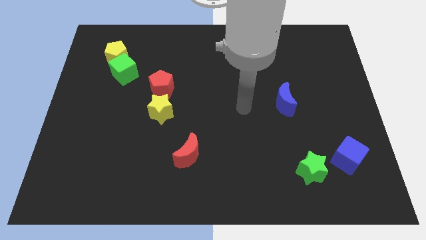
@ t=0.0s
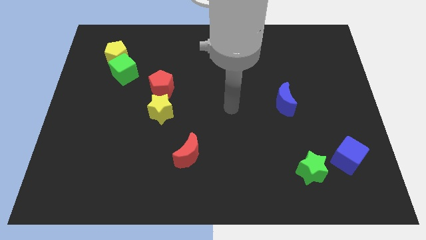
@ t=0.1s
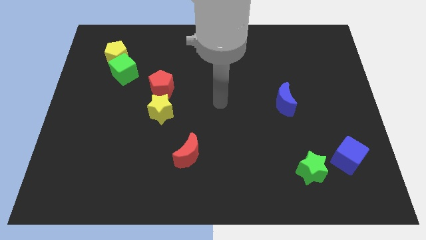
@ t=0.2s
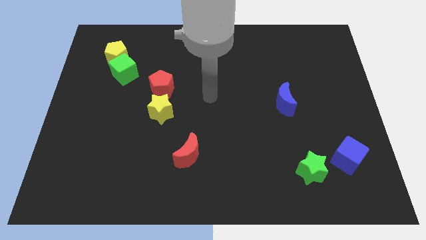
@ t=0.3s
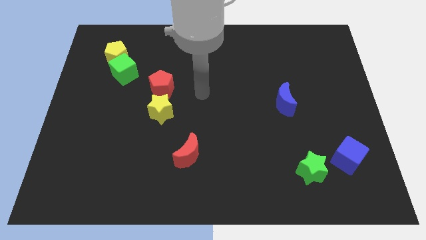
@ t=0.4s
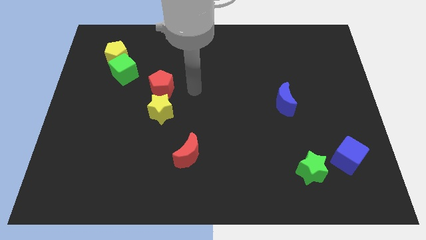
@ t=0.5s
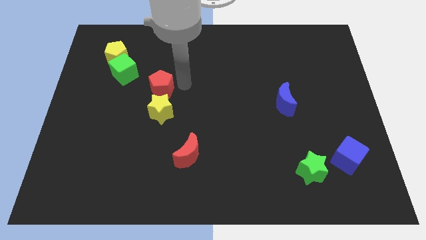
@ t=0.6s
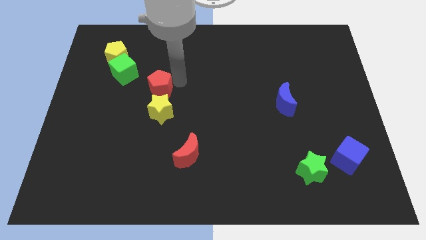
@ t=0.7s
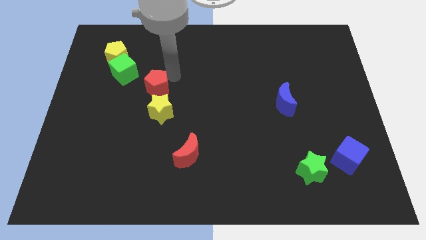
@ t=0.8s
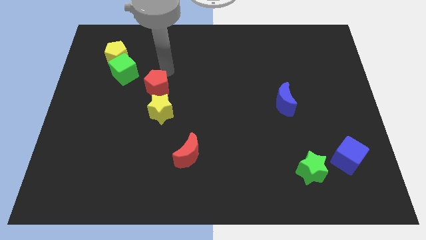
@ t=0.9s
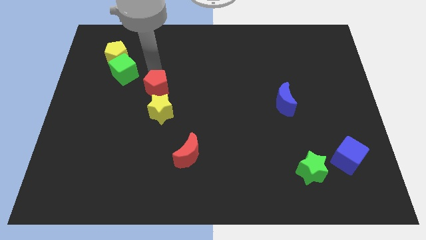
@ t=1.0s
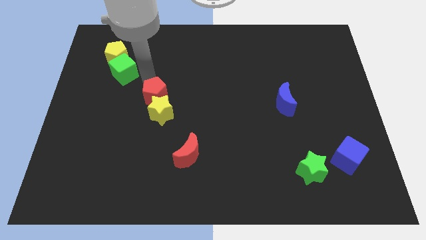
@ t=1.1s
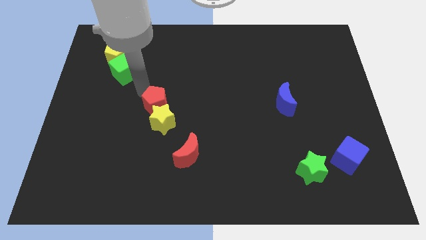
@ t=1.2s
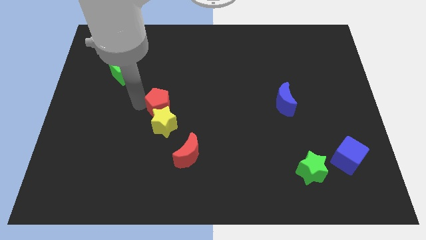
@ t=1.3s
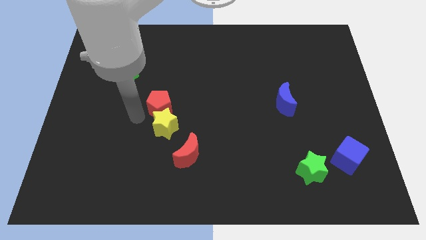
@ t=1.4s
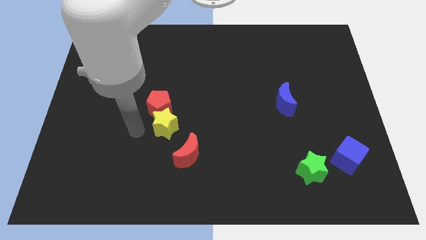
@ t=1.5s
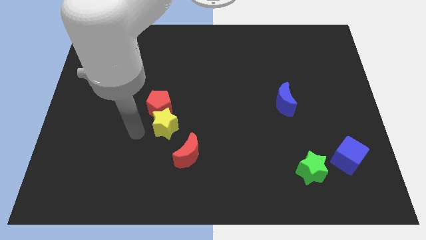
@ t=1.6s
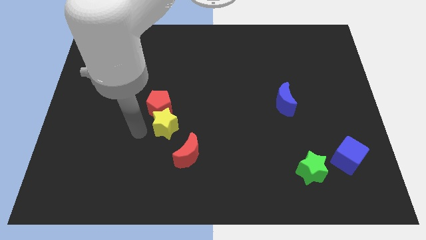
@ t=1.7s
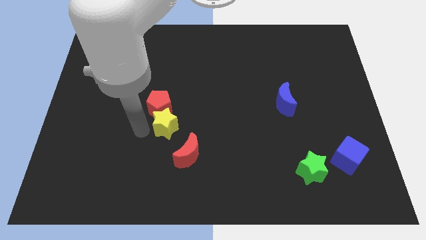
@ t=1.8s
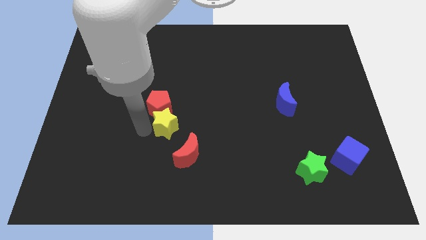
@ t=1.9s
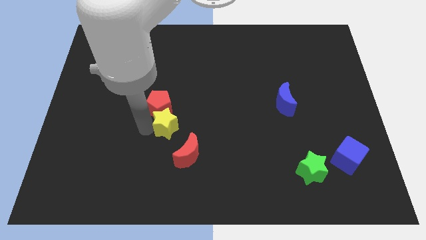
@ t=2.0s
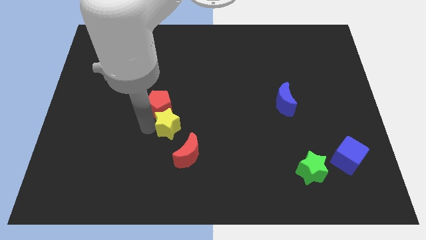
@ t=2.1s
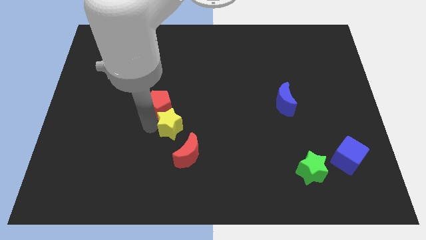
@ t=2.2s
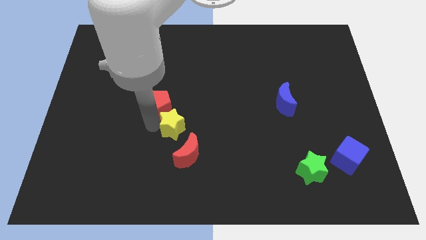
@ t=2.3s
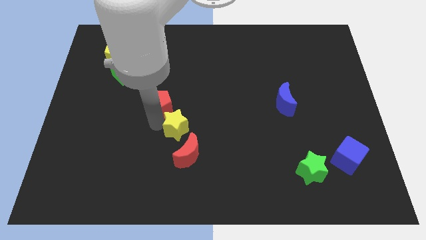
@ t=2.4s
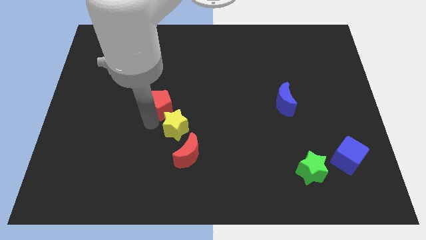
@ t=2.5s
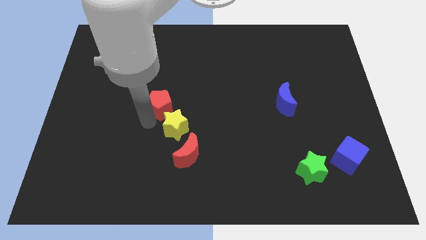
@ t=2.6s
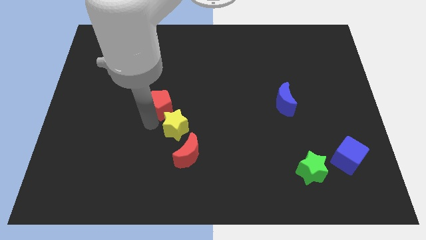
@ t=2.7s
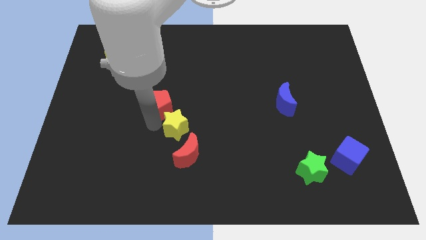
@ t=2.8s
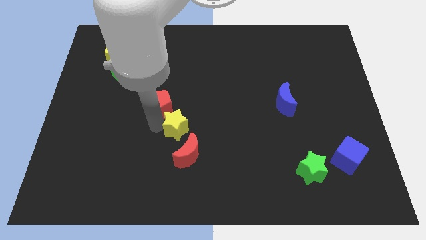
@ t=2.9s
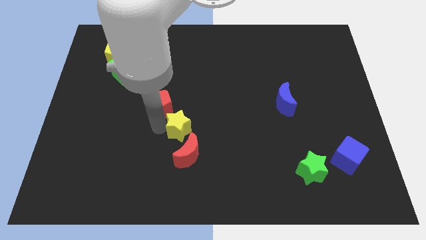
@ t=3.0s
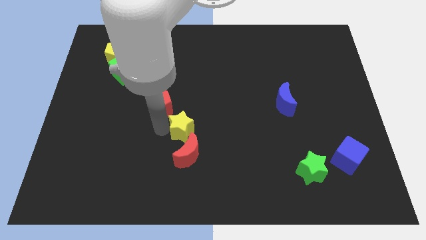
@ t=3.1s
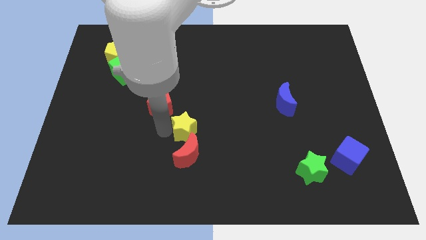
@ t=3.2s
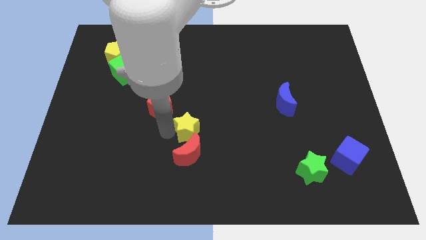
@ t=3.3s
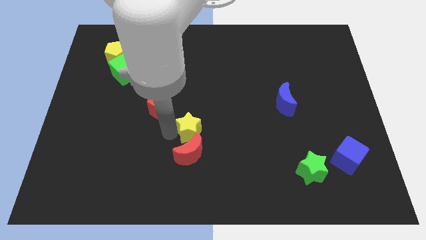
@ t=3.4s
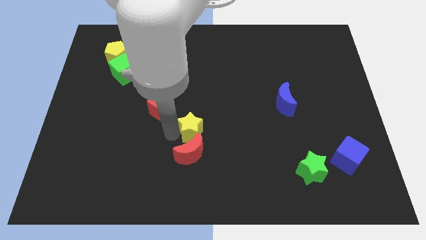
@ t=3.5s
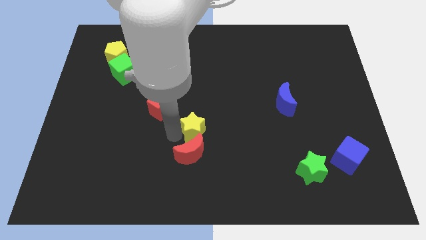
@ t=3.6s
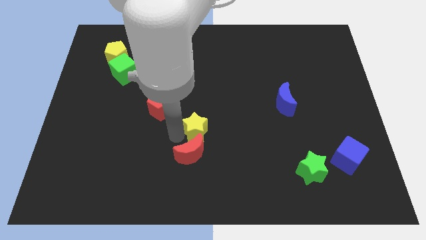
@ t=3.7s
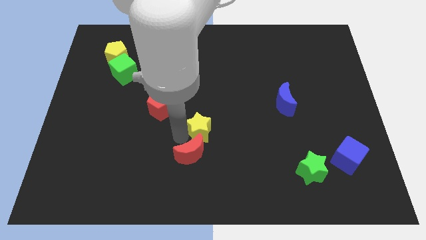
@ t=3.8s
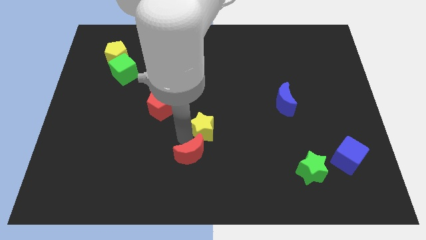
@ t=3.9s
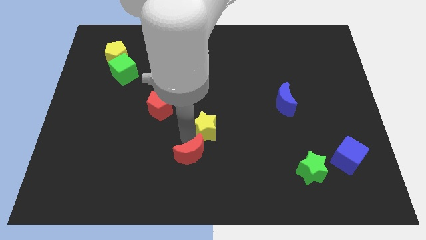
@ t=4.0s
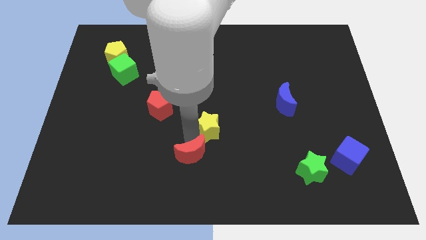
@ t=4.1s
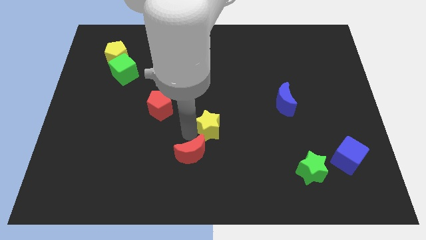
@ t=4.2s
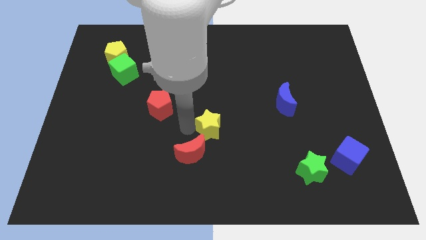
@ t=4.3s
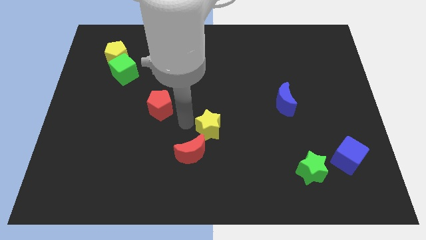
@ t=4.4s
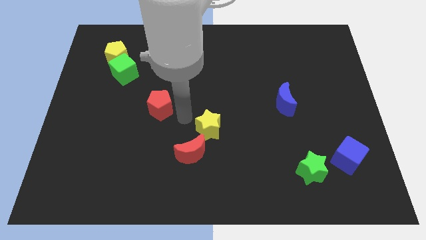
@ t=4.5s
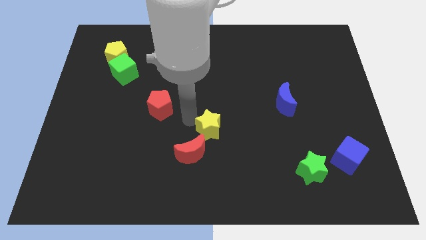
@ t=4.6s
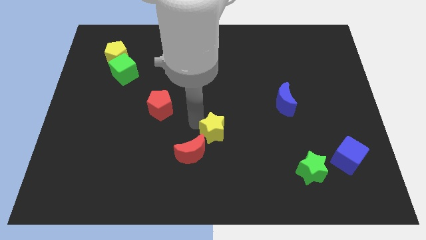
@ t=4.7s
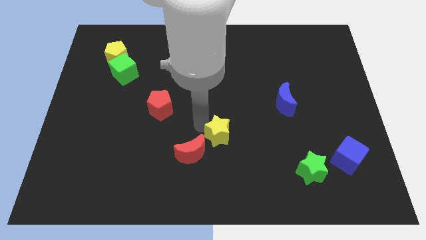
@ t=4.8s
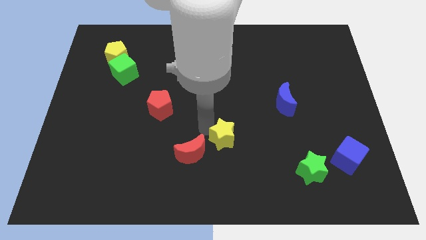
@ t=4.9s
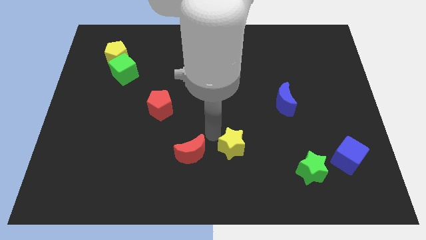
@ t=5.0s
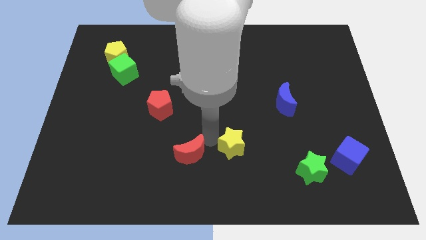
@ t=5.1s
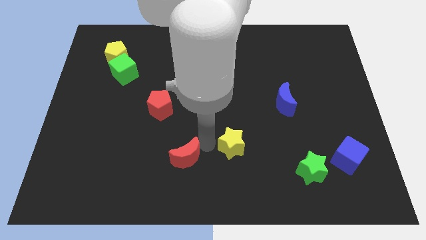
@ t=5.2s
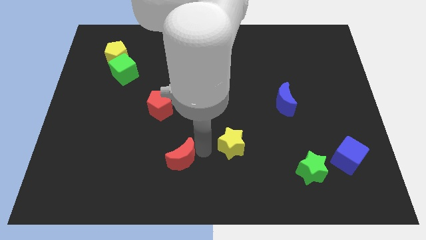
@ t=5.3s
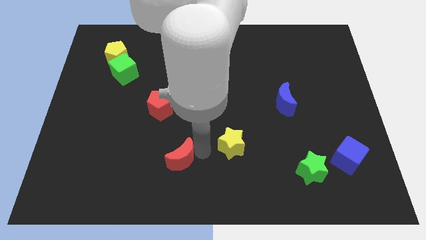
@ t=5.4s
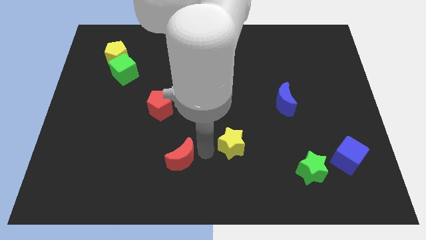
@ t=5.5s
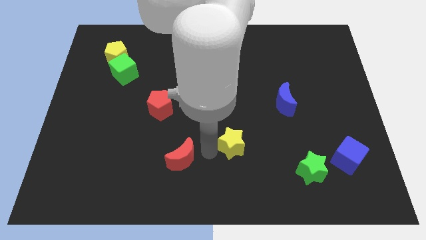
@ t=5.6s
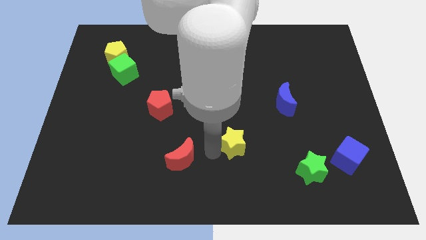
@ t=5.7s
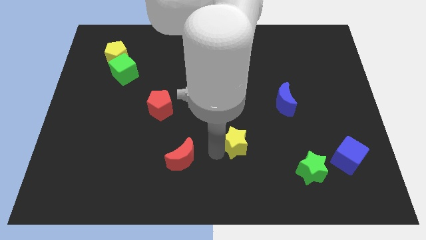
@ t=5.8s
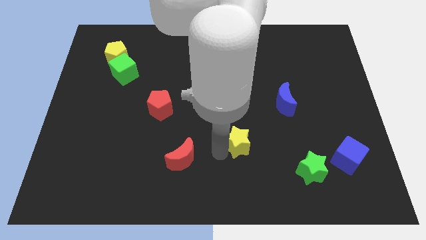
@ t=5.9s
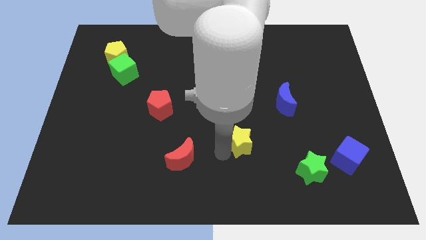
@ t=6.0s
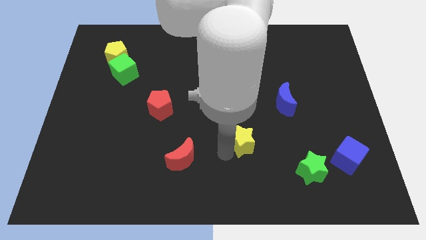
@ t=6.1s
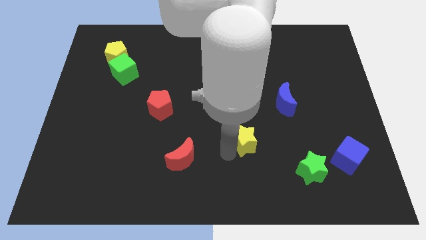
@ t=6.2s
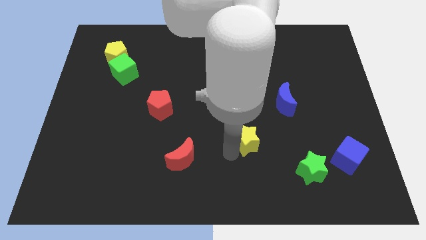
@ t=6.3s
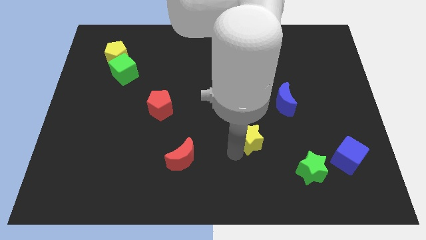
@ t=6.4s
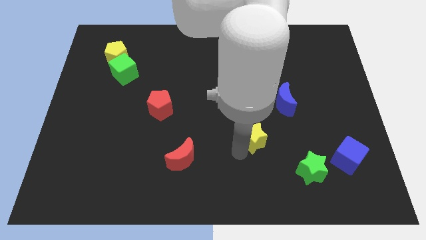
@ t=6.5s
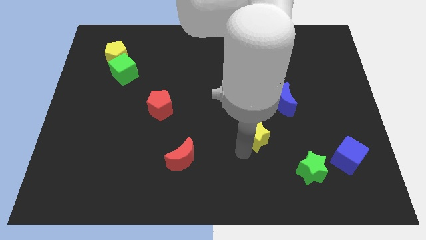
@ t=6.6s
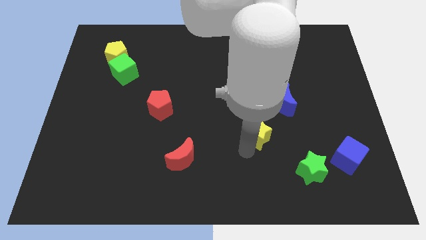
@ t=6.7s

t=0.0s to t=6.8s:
move the yellow star right

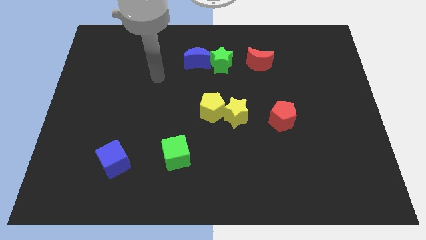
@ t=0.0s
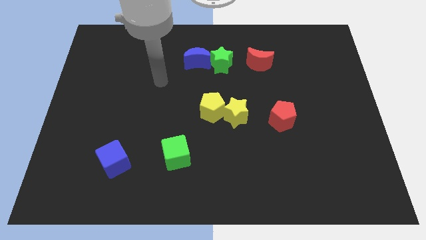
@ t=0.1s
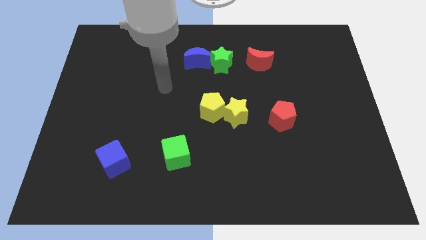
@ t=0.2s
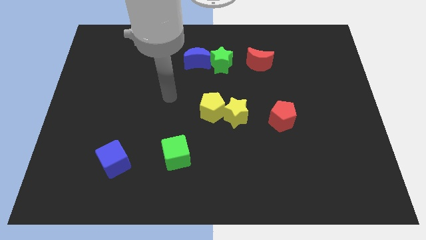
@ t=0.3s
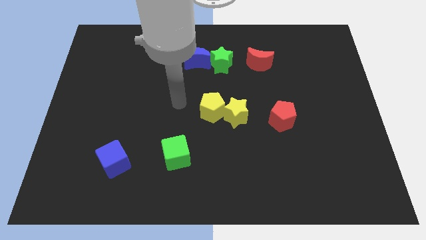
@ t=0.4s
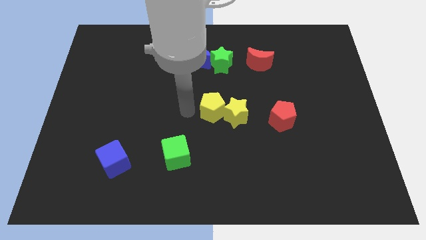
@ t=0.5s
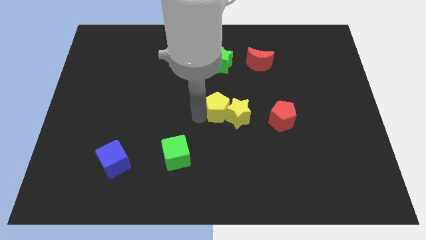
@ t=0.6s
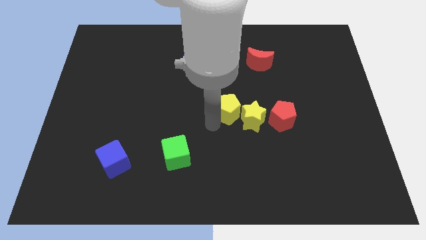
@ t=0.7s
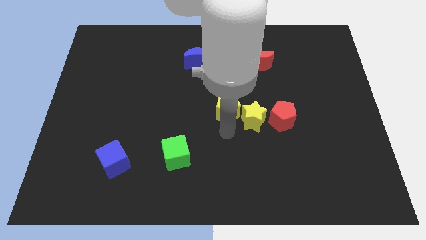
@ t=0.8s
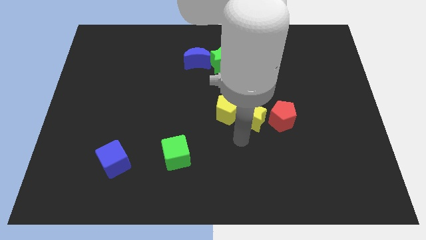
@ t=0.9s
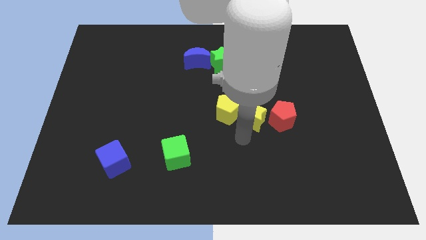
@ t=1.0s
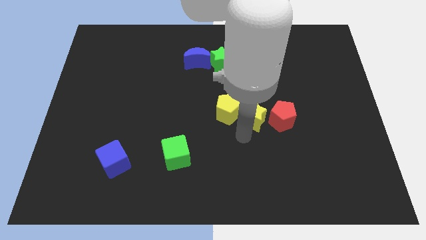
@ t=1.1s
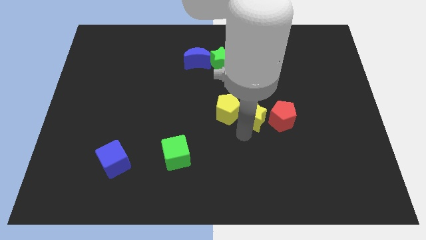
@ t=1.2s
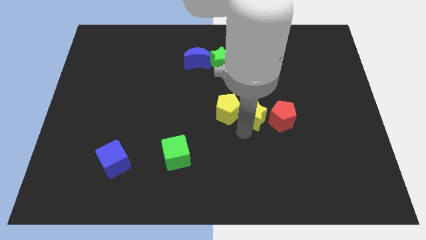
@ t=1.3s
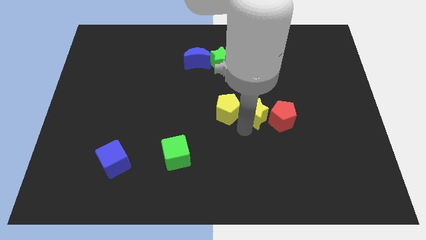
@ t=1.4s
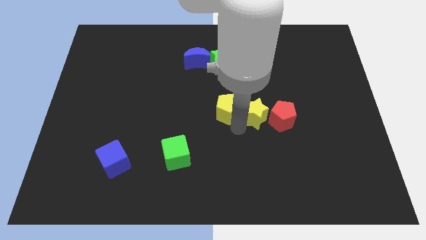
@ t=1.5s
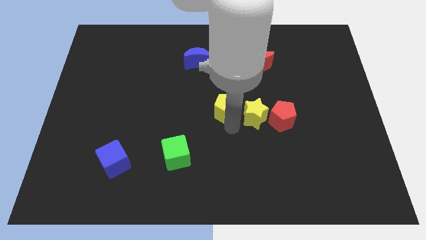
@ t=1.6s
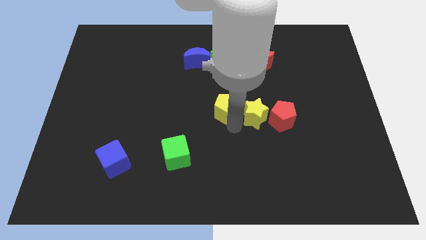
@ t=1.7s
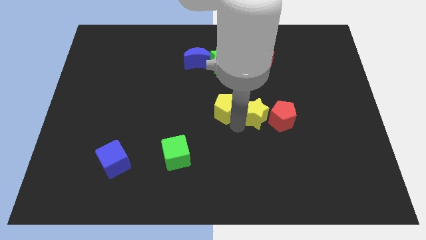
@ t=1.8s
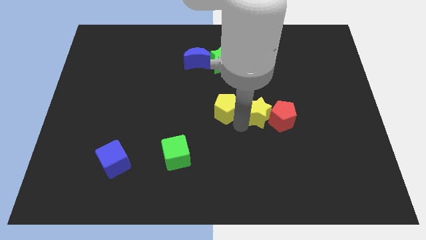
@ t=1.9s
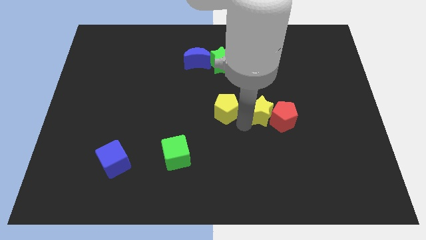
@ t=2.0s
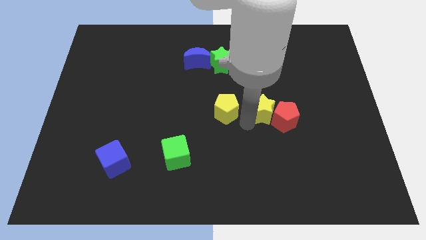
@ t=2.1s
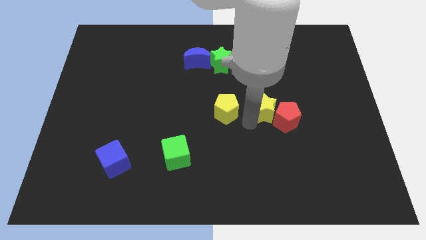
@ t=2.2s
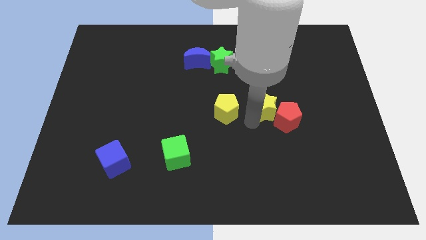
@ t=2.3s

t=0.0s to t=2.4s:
slide the yellow star to the right a little bit
